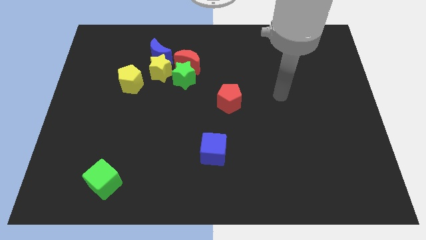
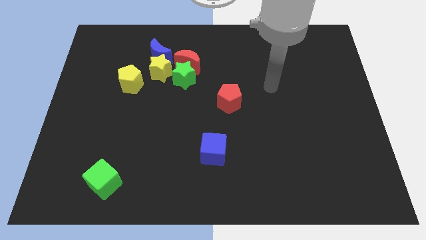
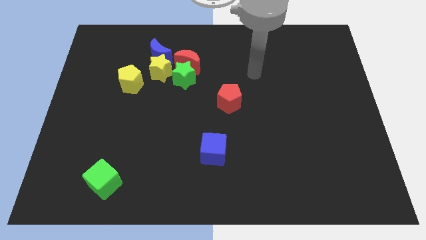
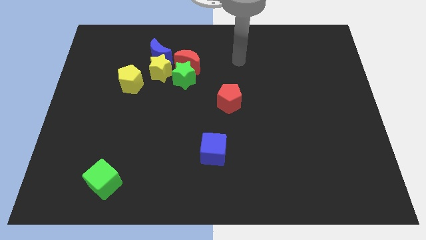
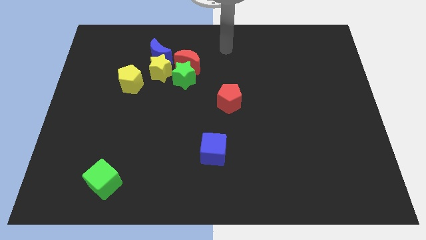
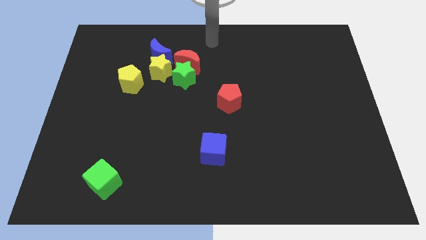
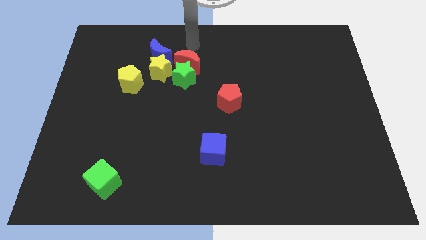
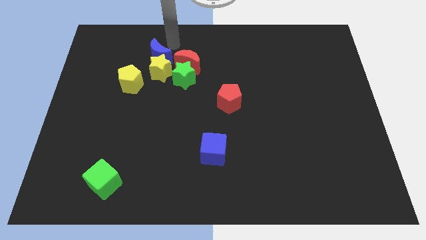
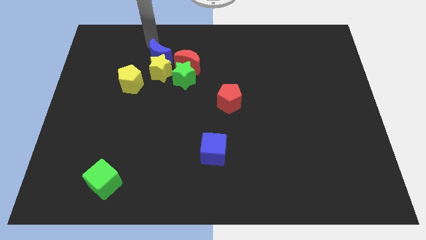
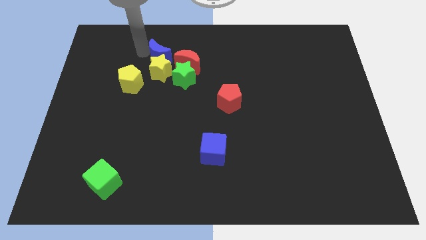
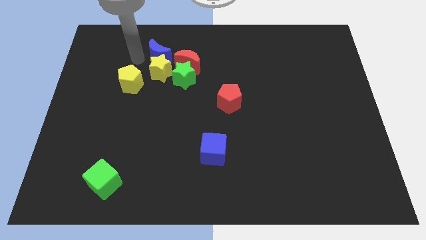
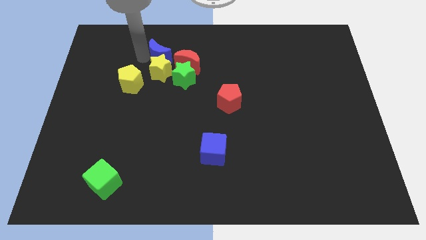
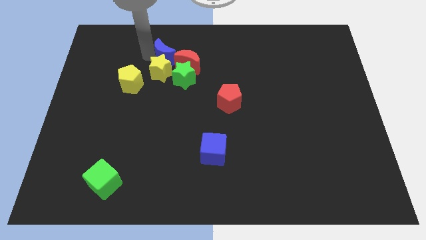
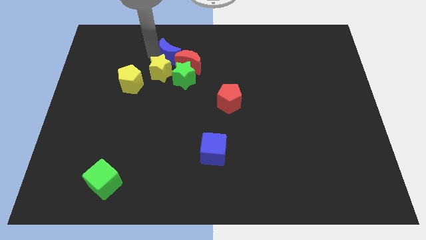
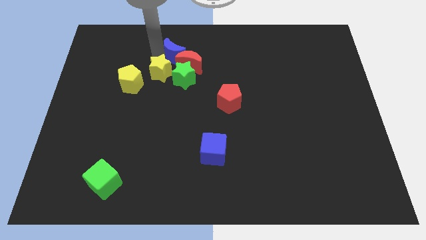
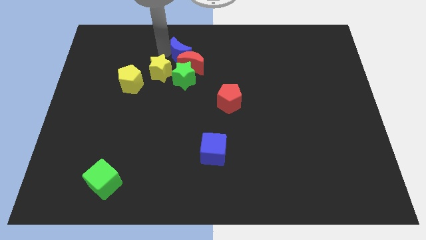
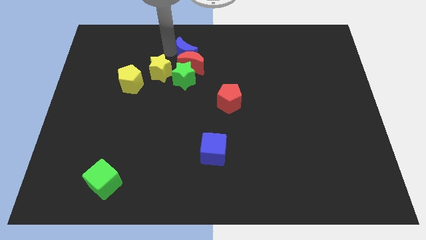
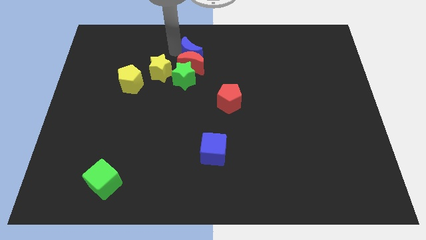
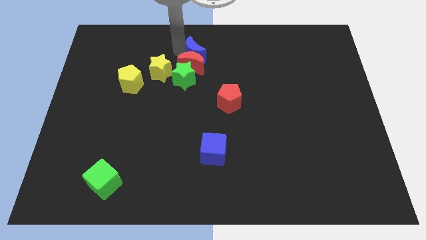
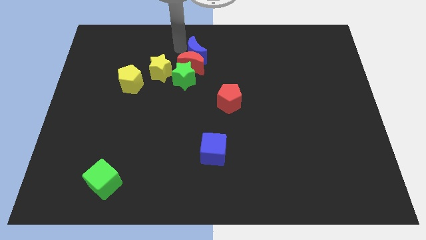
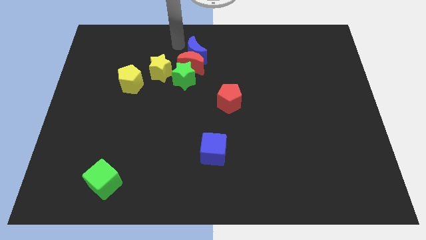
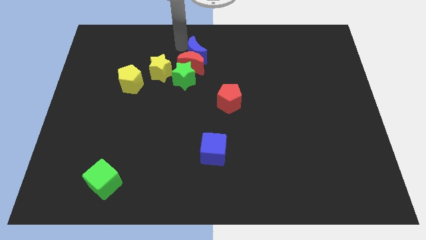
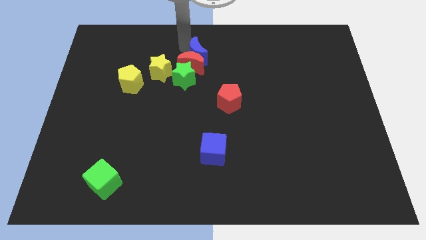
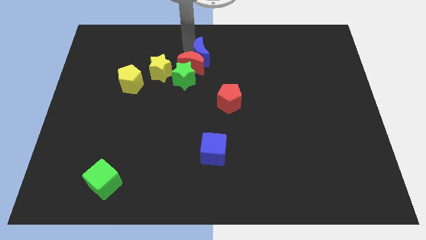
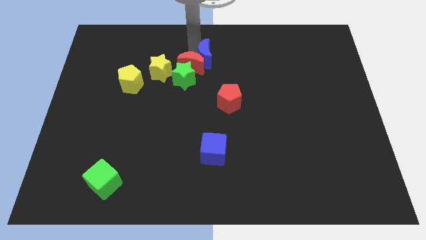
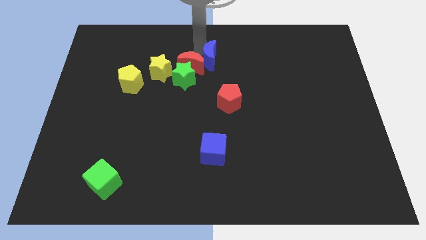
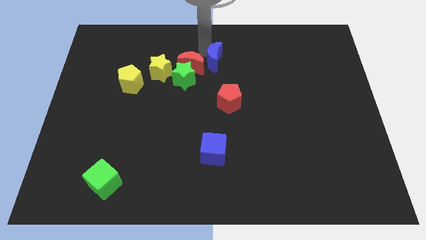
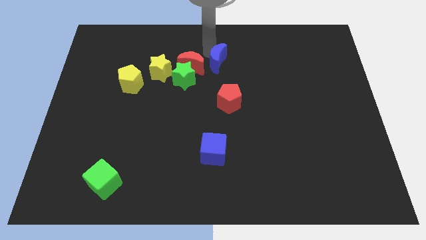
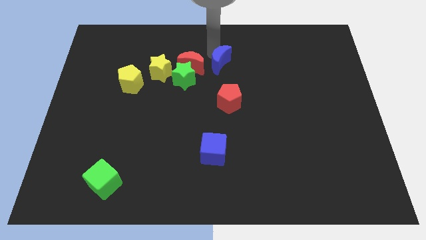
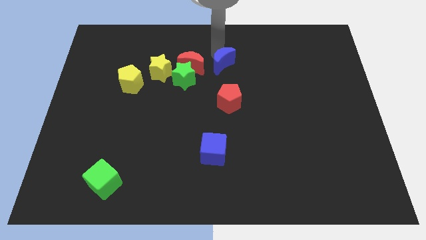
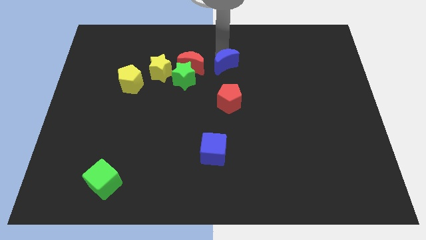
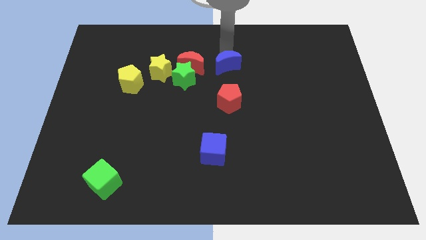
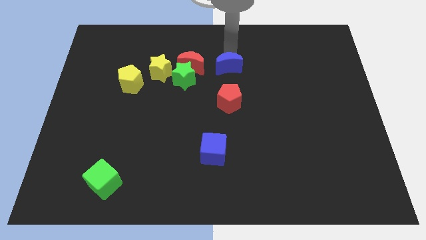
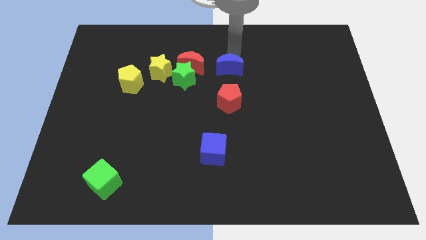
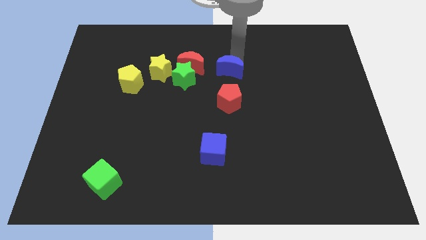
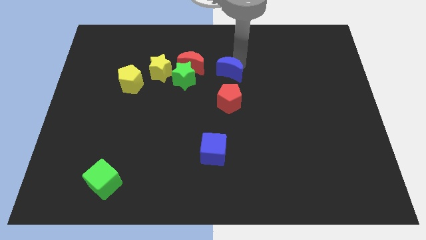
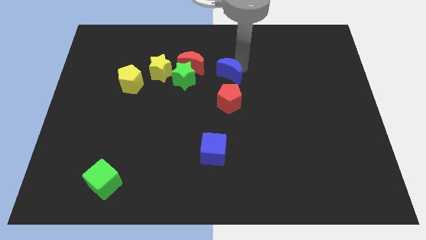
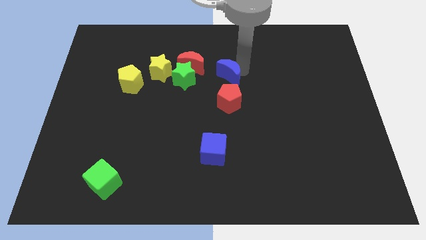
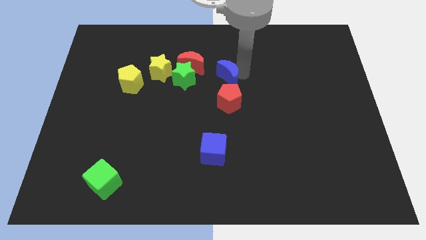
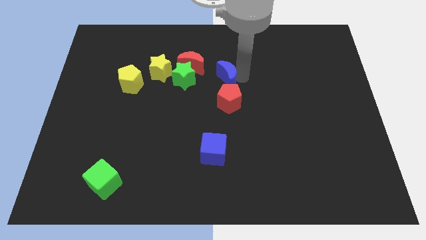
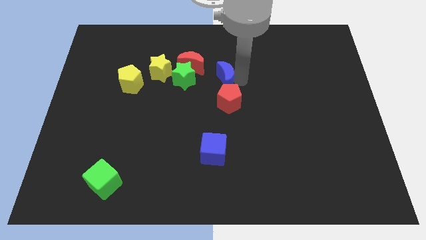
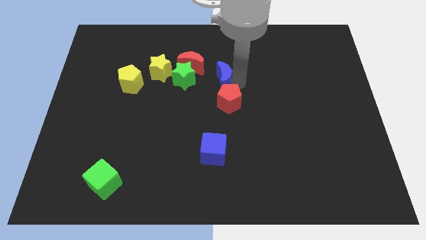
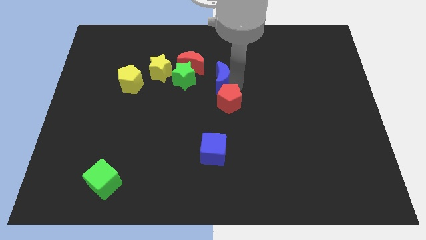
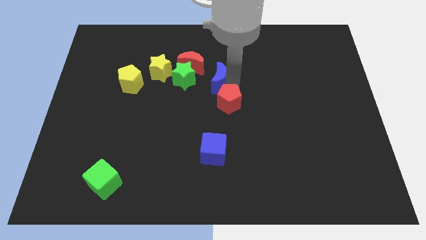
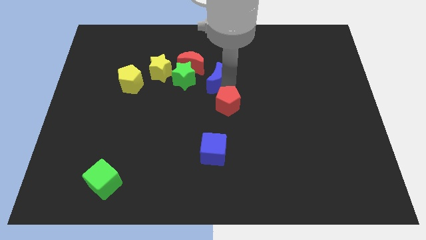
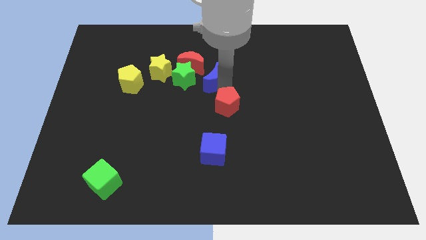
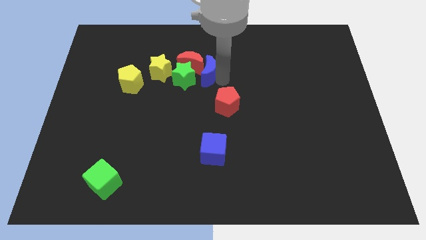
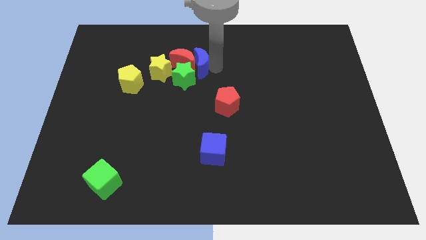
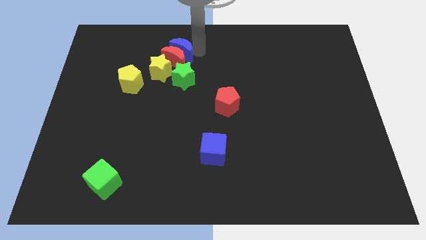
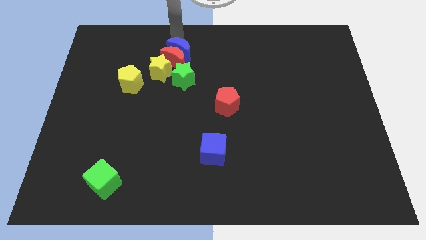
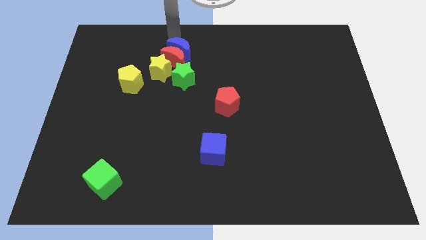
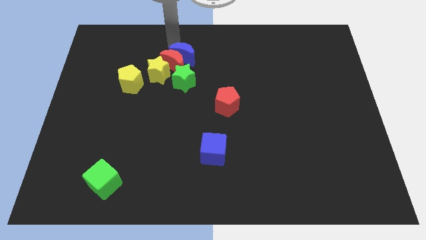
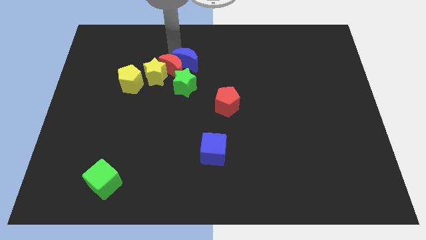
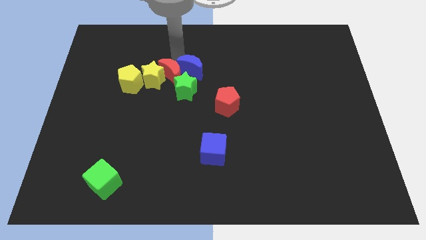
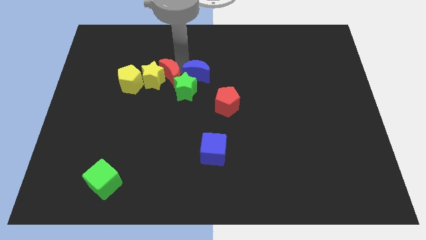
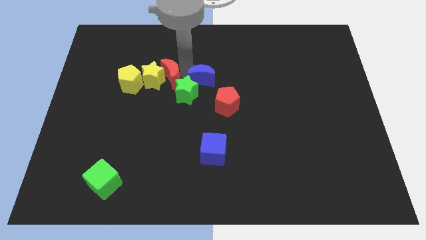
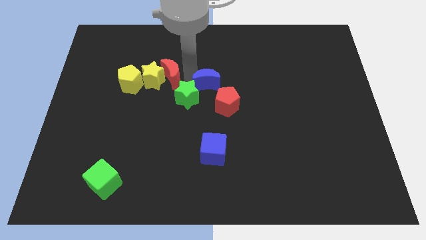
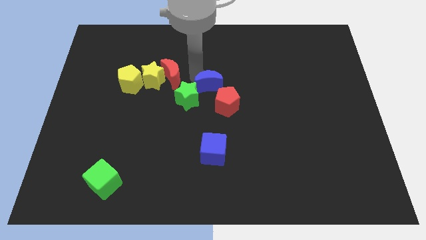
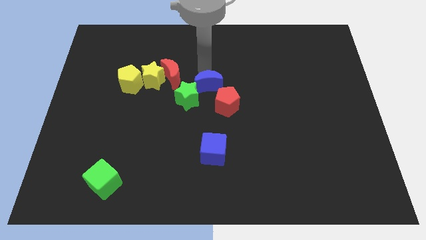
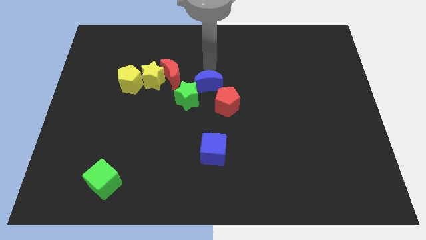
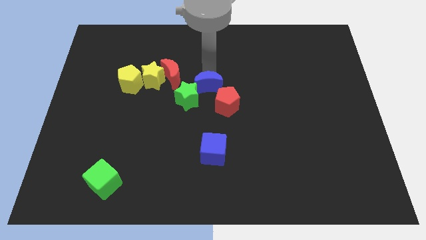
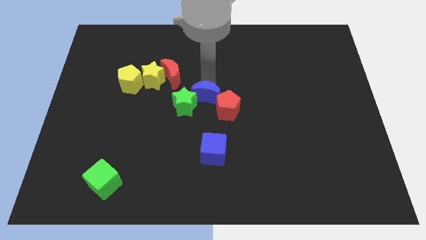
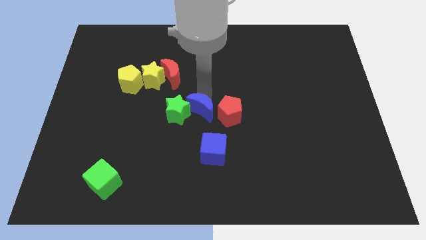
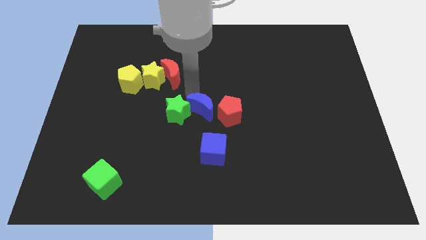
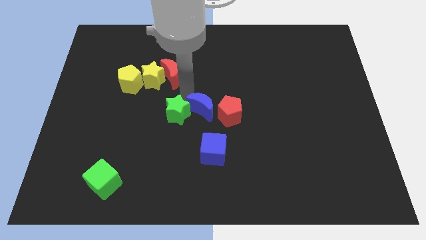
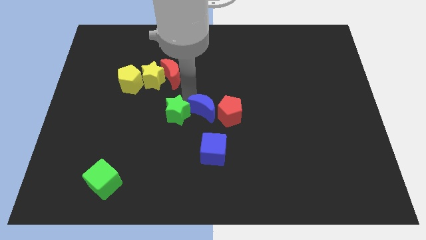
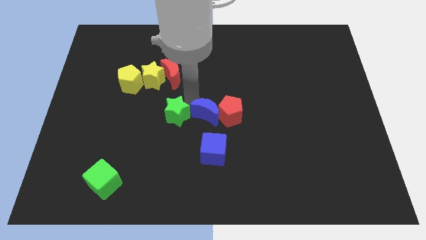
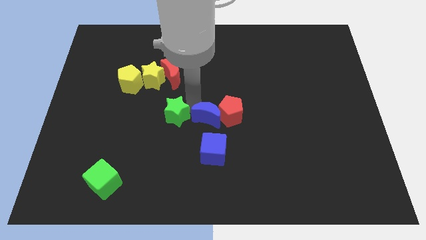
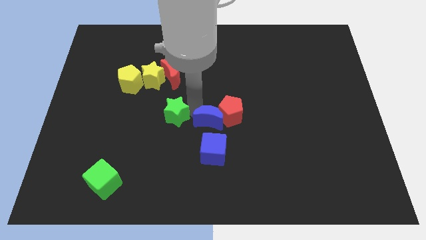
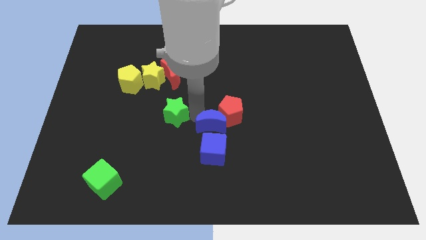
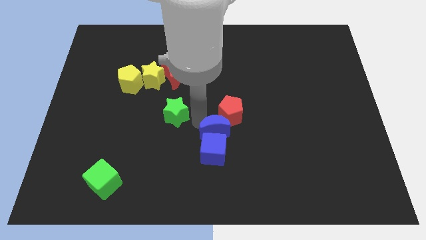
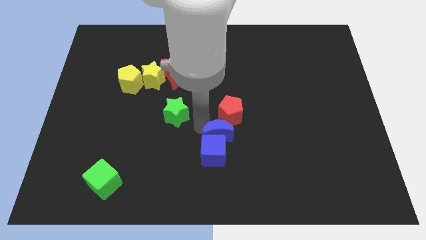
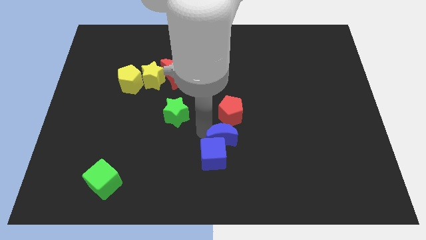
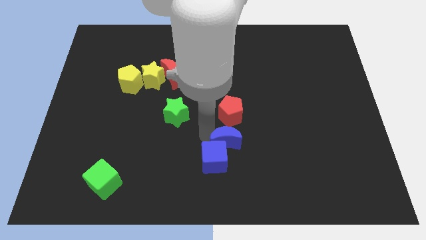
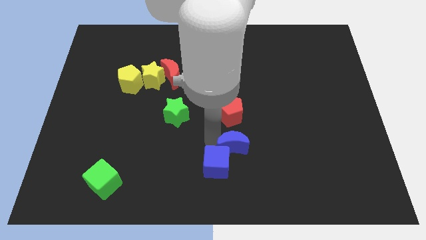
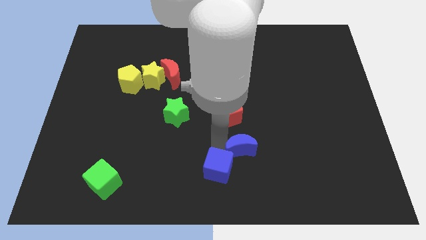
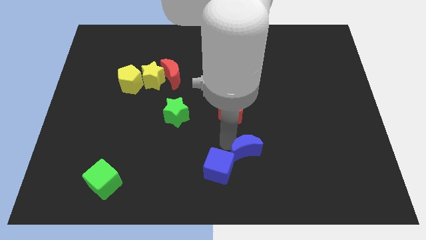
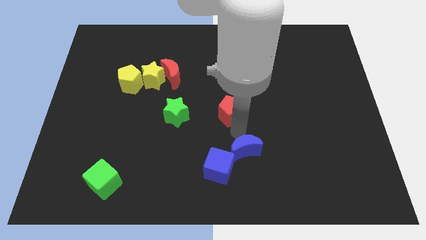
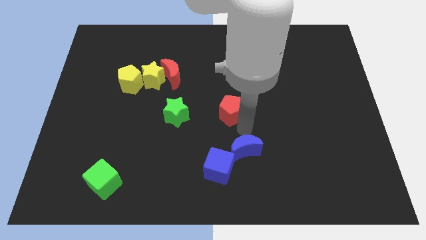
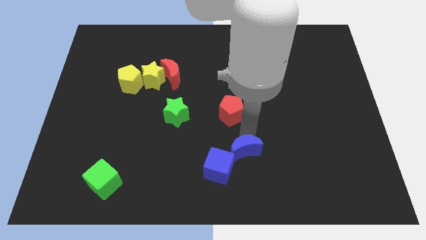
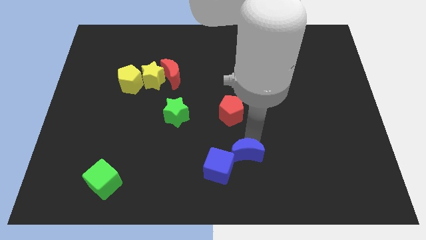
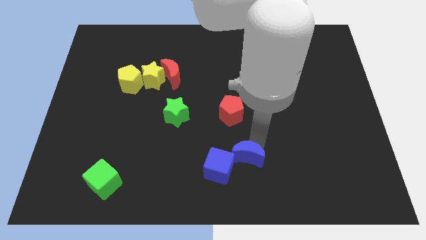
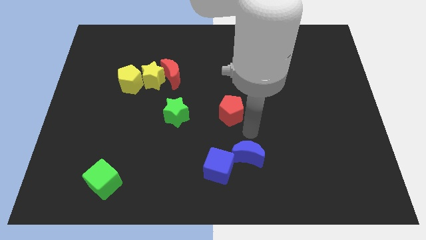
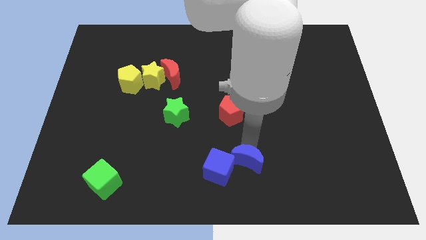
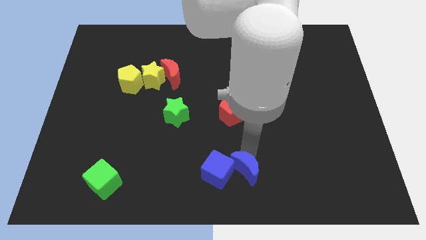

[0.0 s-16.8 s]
slide the blue moon to the bottom right of the blue cube
